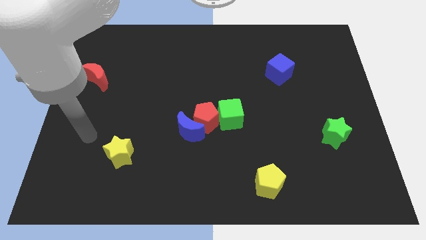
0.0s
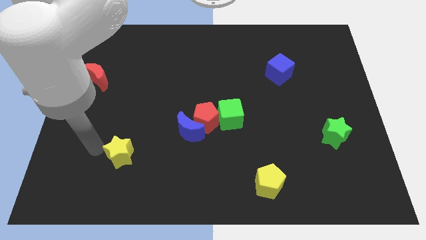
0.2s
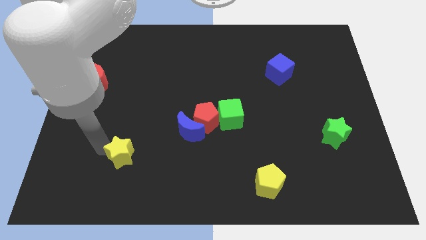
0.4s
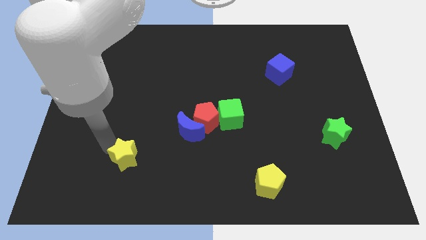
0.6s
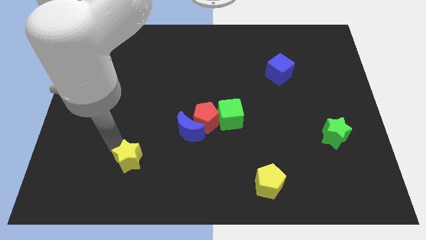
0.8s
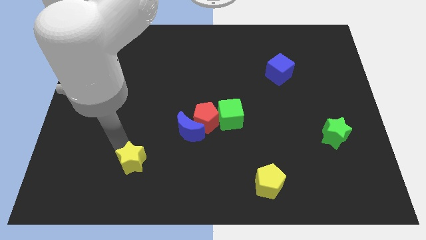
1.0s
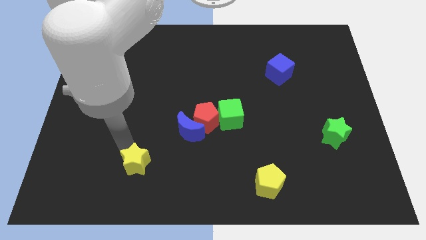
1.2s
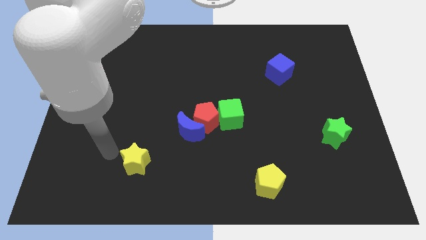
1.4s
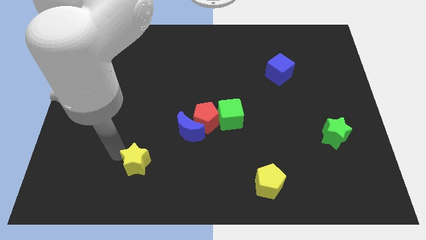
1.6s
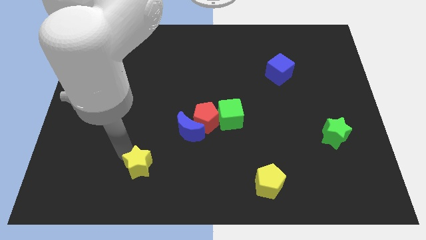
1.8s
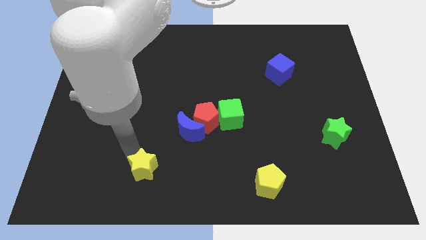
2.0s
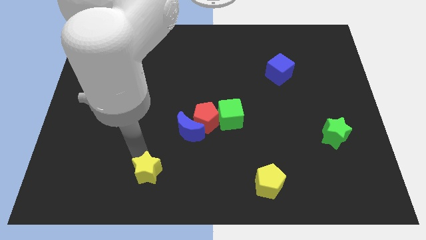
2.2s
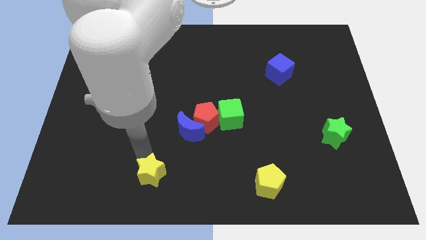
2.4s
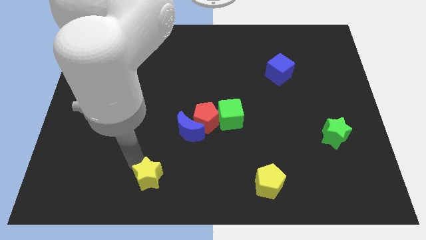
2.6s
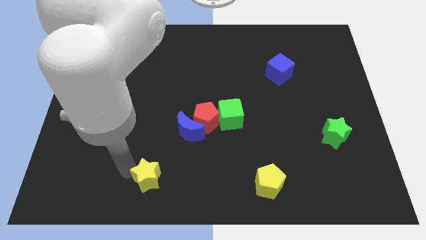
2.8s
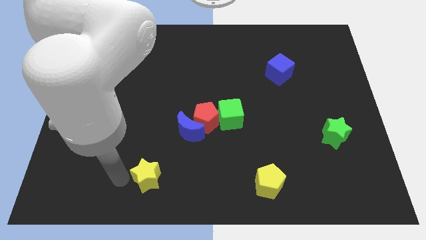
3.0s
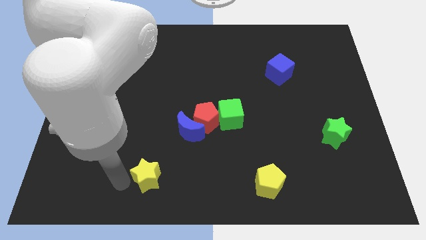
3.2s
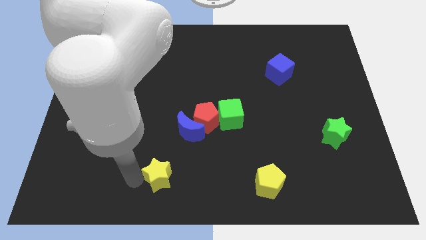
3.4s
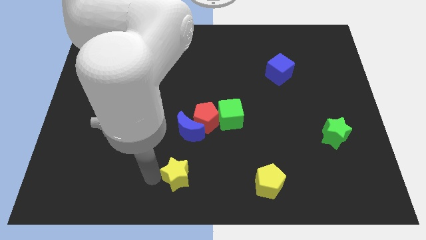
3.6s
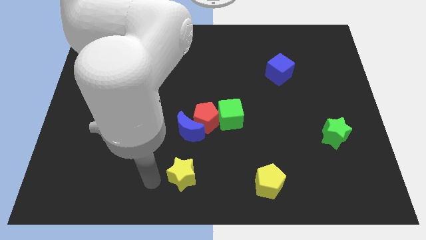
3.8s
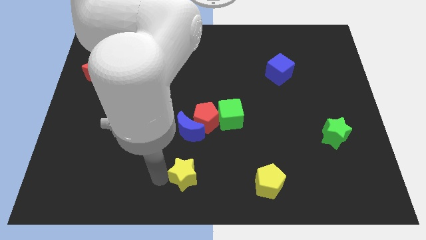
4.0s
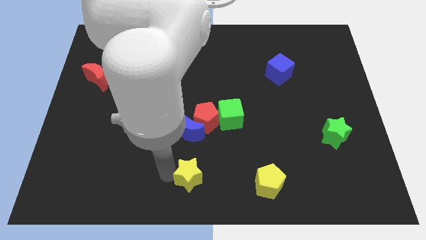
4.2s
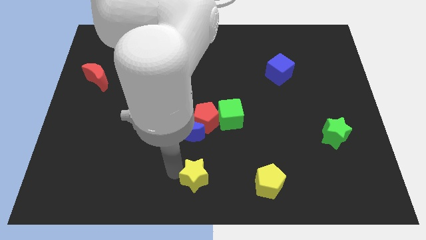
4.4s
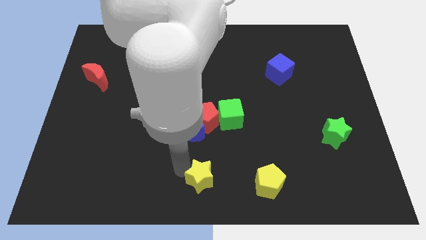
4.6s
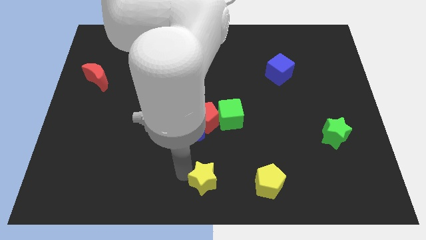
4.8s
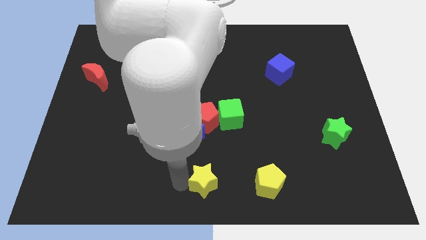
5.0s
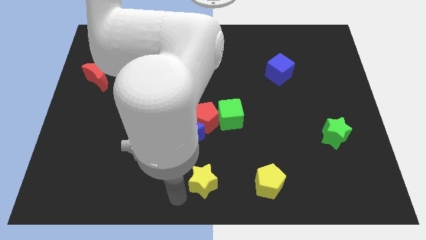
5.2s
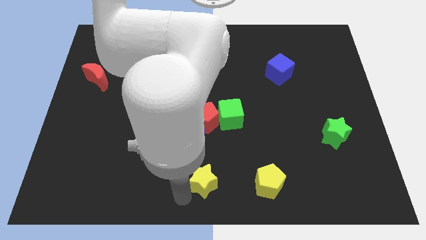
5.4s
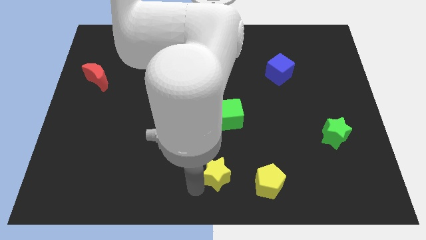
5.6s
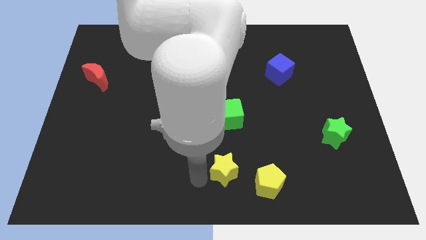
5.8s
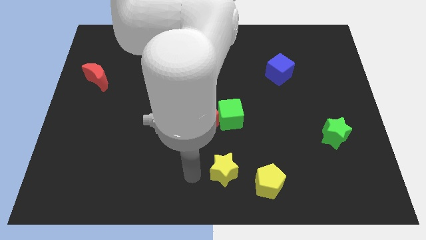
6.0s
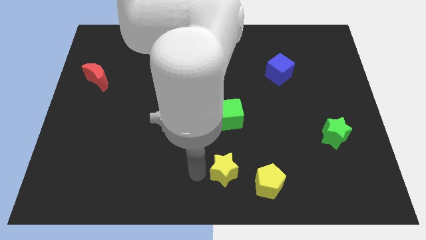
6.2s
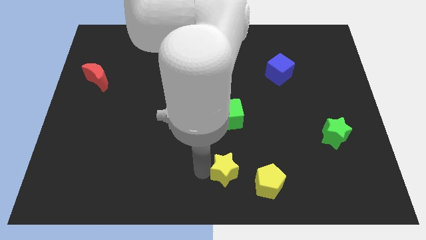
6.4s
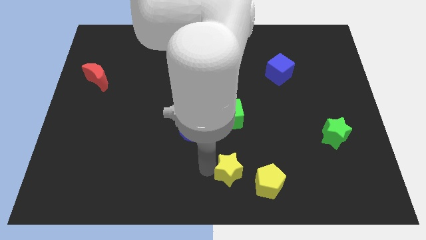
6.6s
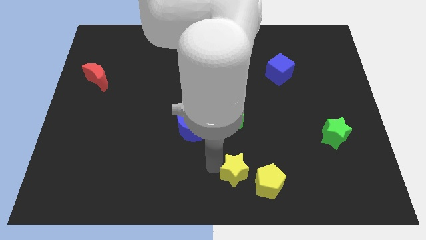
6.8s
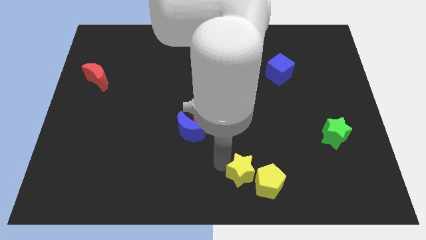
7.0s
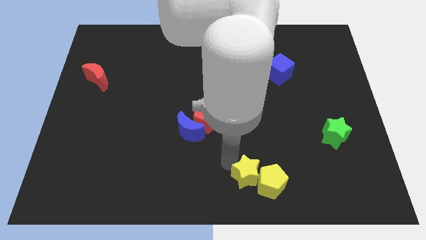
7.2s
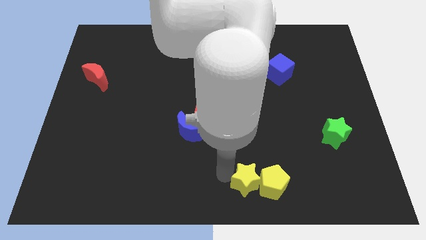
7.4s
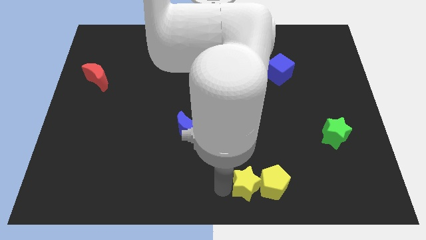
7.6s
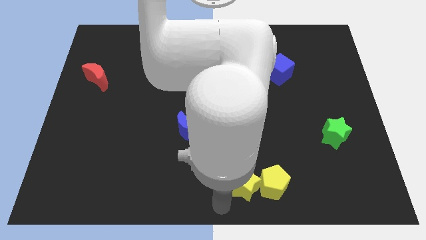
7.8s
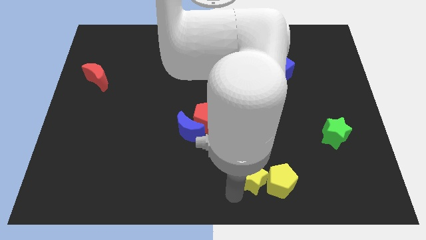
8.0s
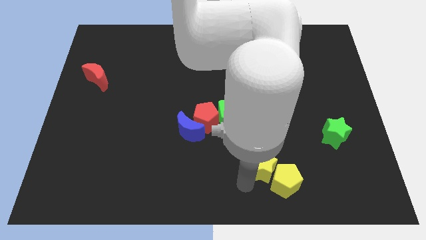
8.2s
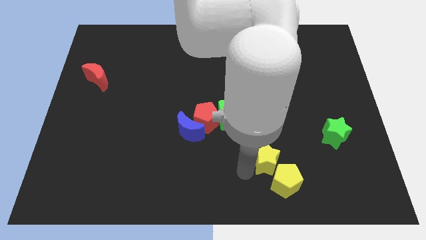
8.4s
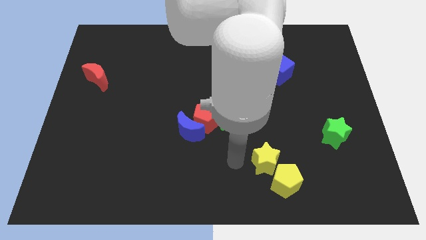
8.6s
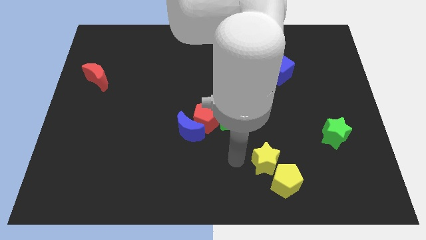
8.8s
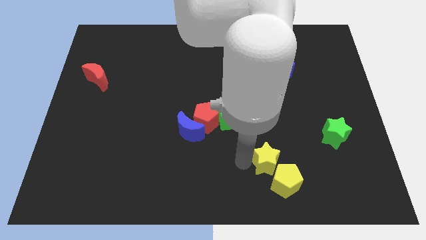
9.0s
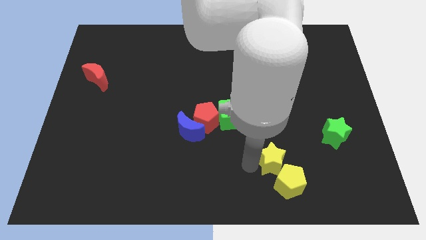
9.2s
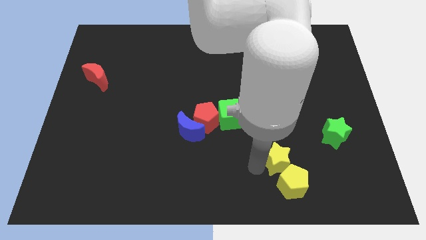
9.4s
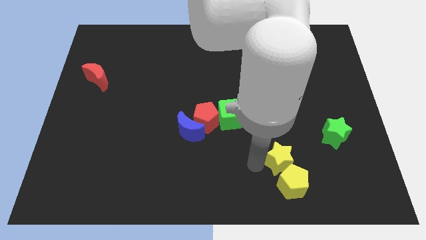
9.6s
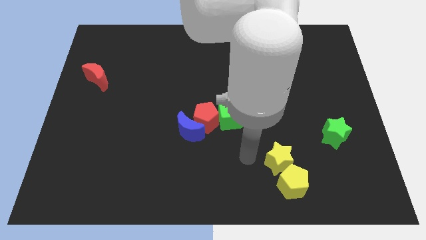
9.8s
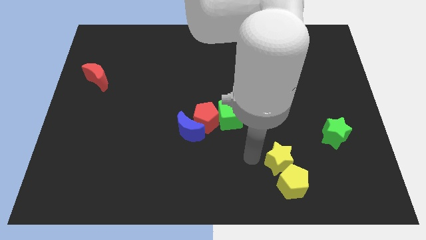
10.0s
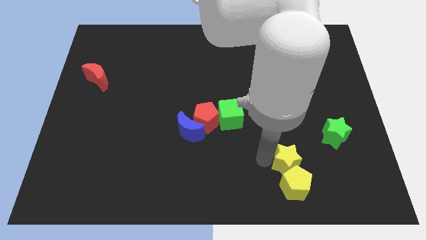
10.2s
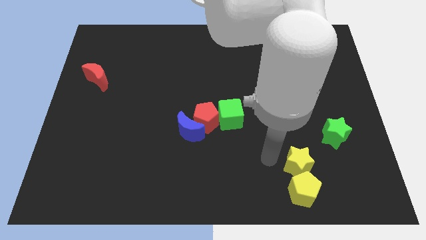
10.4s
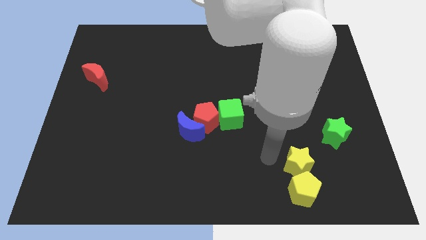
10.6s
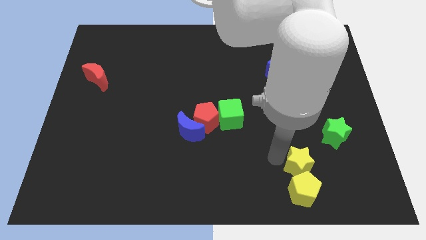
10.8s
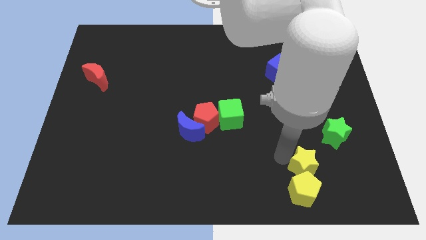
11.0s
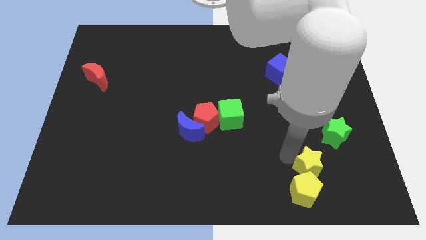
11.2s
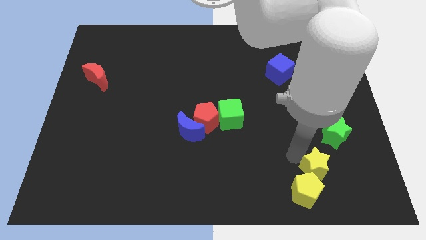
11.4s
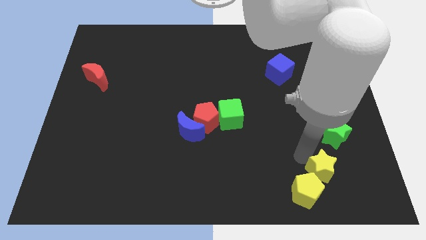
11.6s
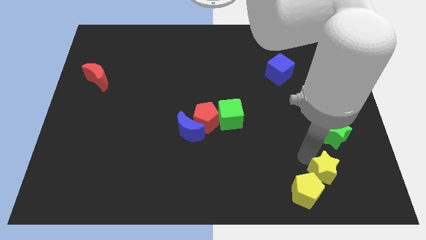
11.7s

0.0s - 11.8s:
put the yellow star below the green star

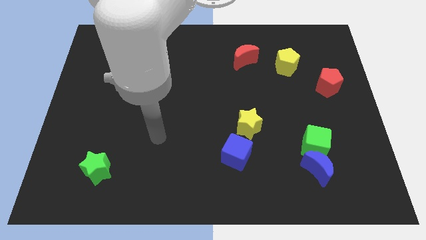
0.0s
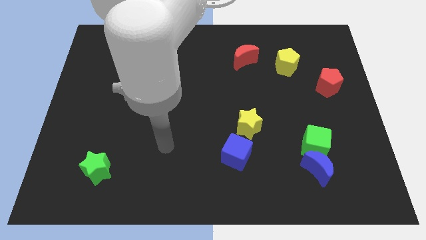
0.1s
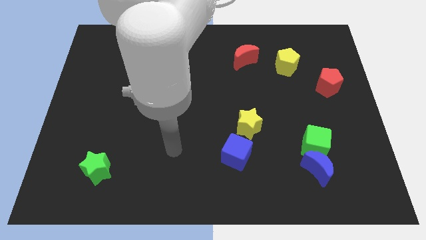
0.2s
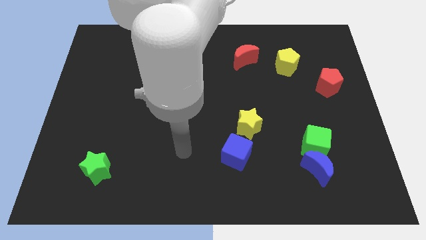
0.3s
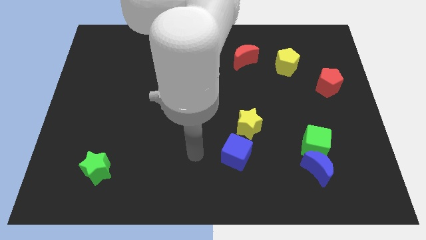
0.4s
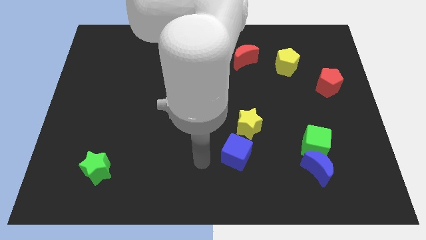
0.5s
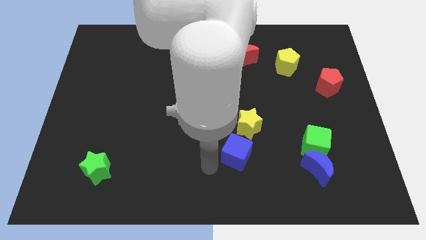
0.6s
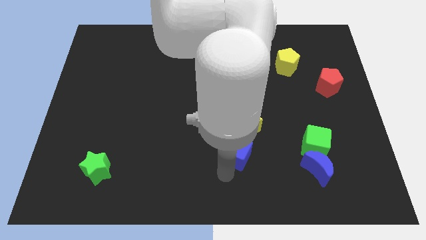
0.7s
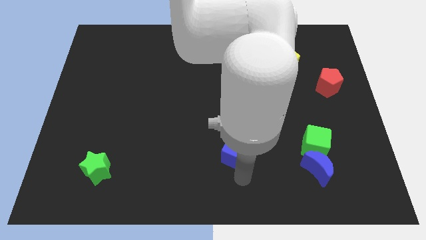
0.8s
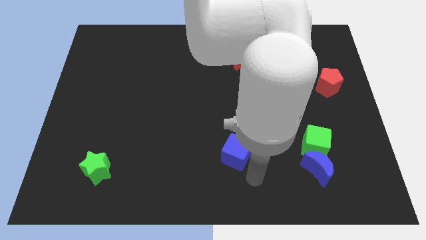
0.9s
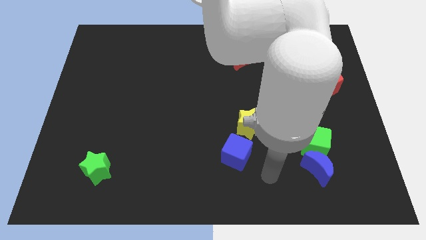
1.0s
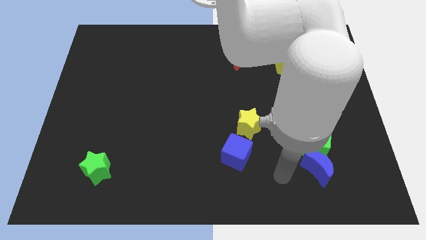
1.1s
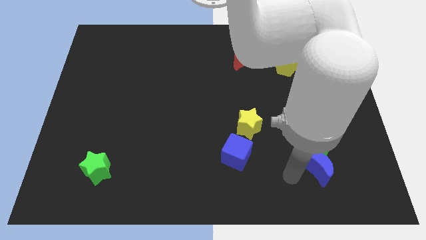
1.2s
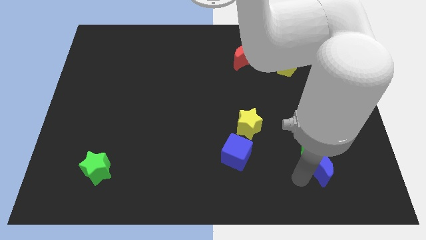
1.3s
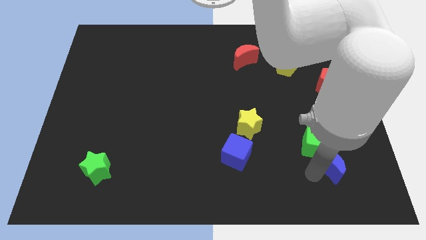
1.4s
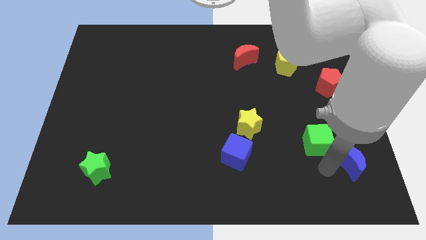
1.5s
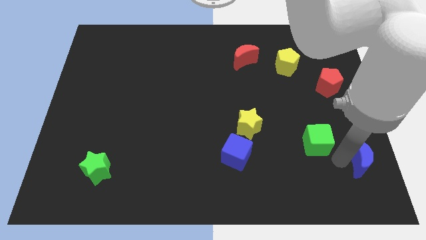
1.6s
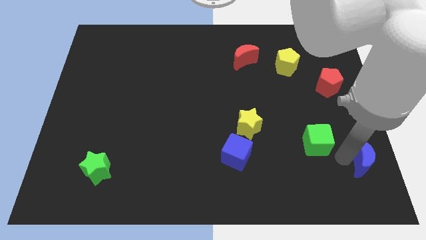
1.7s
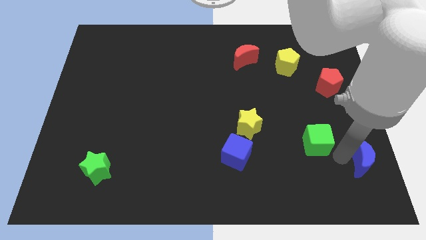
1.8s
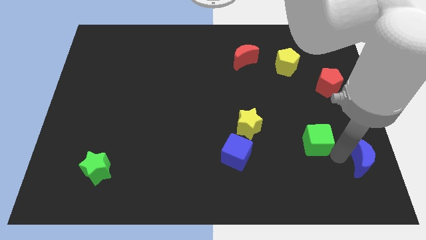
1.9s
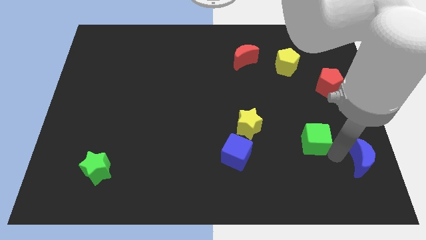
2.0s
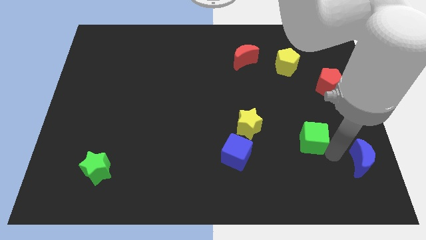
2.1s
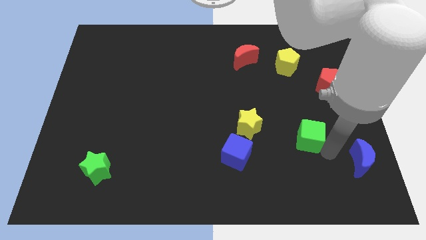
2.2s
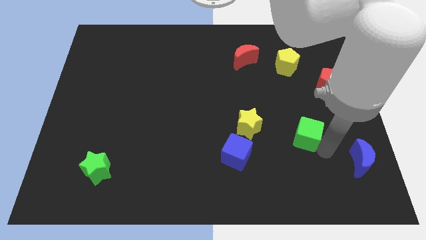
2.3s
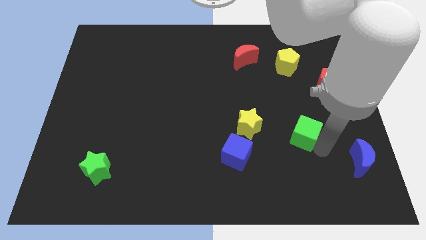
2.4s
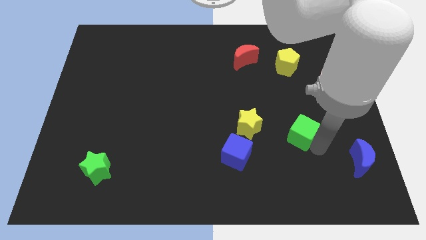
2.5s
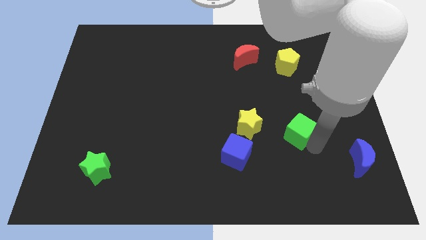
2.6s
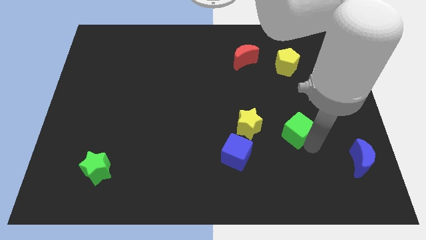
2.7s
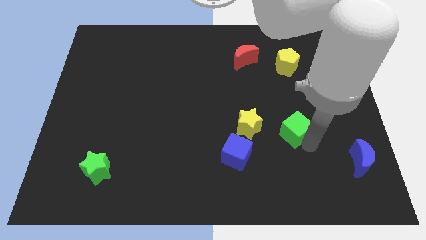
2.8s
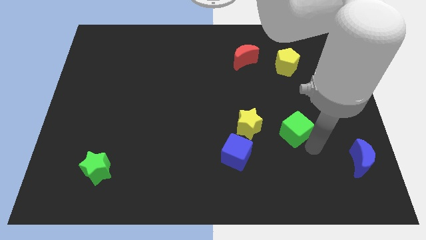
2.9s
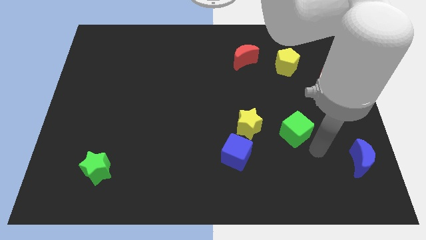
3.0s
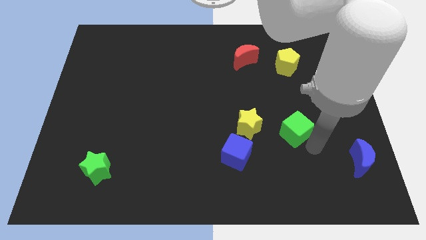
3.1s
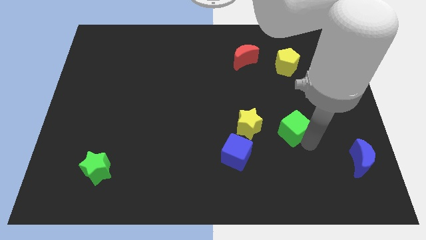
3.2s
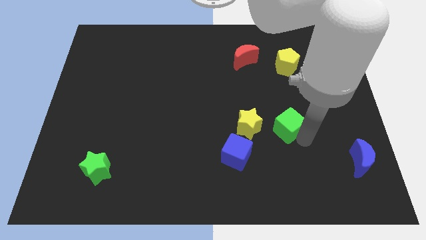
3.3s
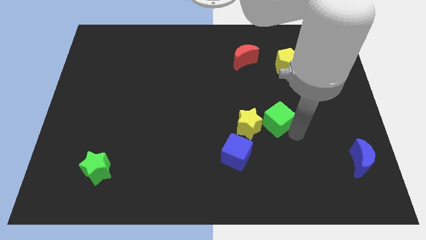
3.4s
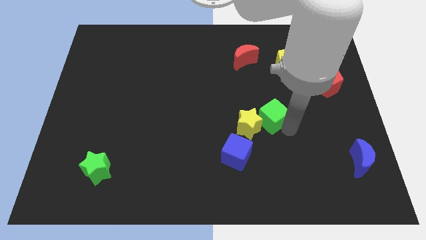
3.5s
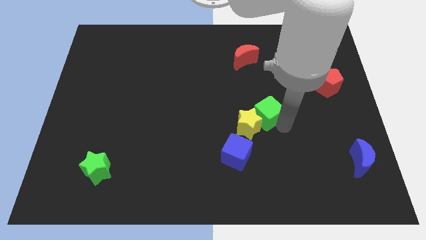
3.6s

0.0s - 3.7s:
slide the green cube above the yellow star
